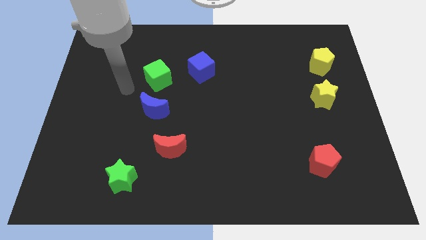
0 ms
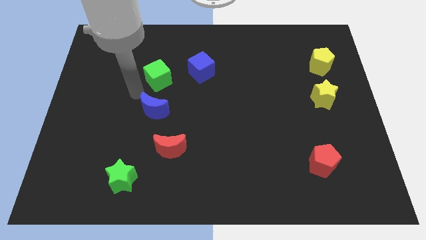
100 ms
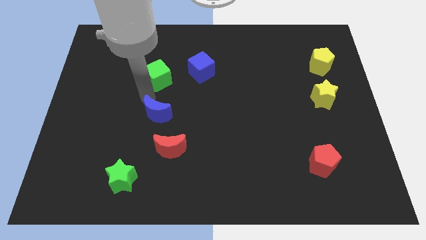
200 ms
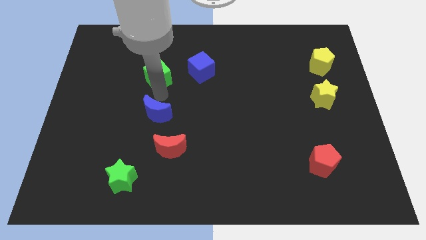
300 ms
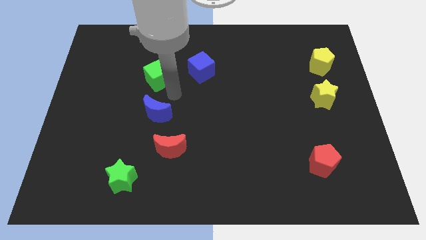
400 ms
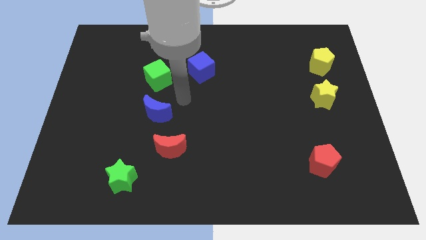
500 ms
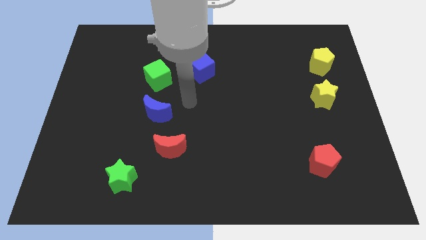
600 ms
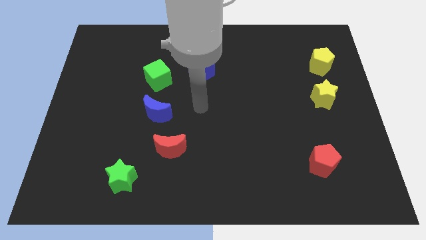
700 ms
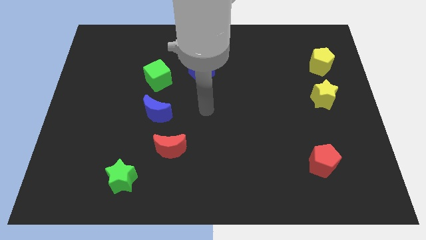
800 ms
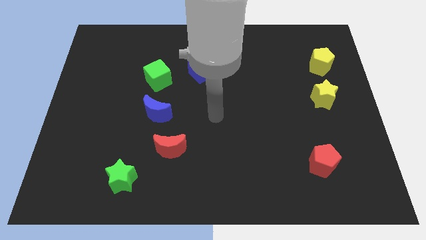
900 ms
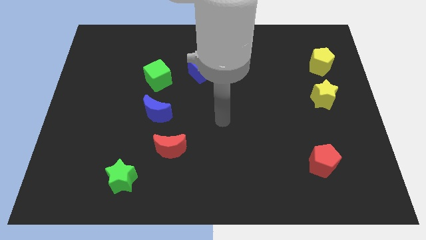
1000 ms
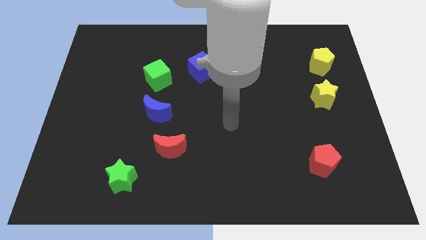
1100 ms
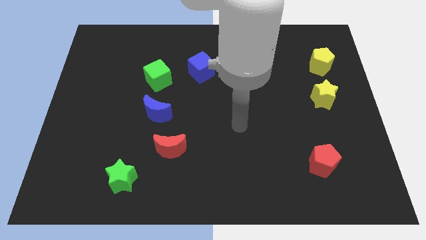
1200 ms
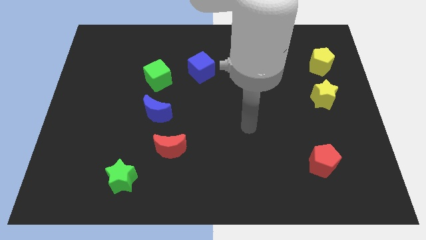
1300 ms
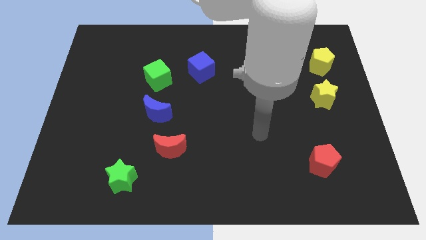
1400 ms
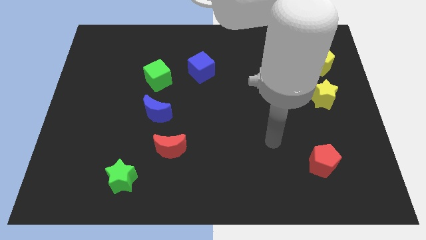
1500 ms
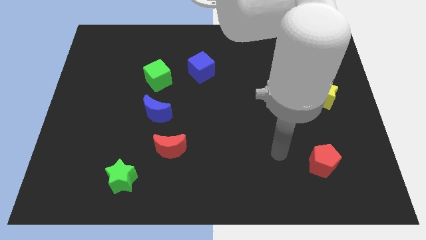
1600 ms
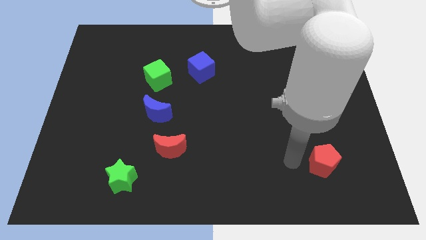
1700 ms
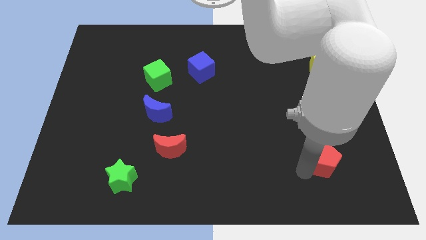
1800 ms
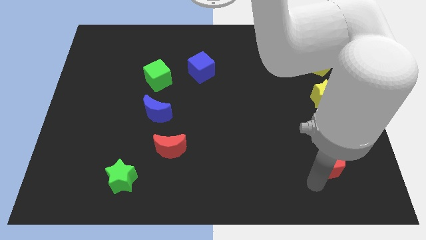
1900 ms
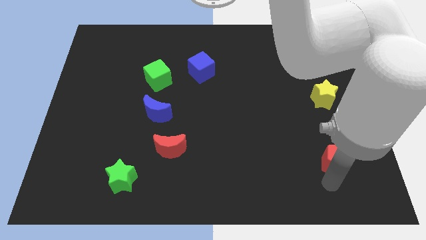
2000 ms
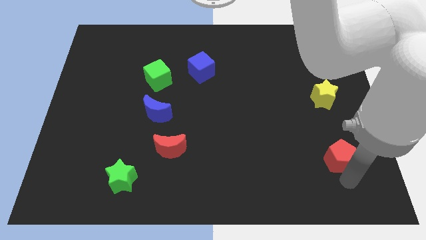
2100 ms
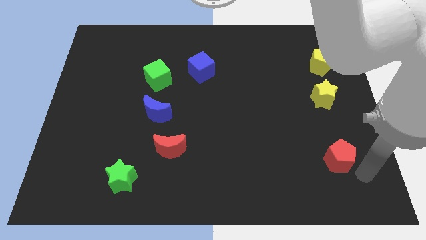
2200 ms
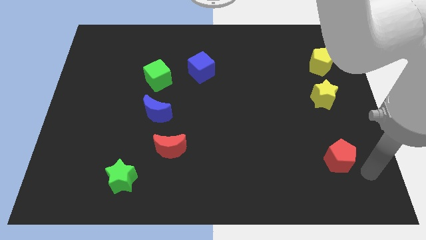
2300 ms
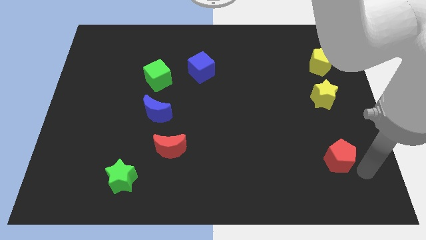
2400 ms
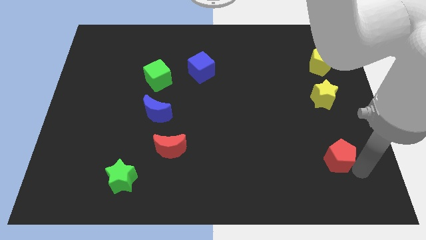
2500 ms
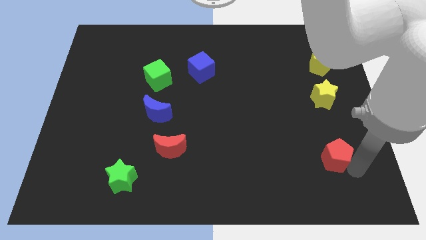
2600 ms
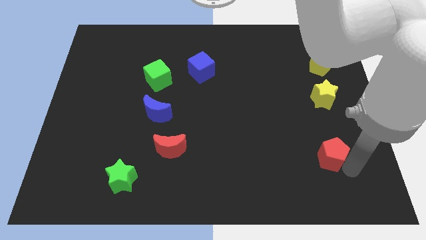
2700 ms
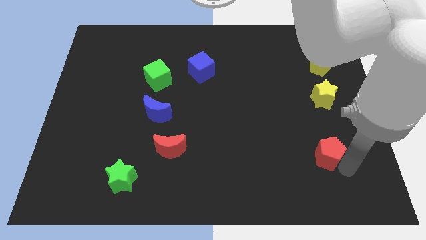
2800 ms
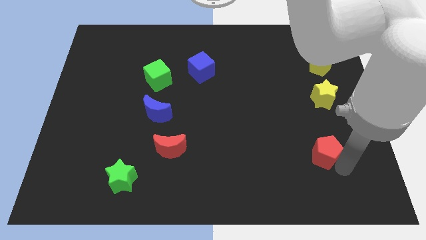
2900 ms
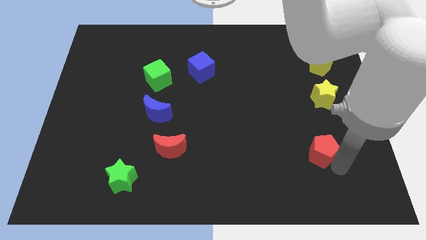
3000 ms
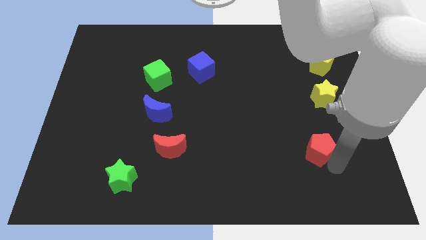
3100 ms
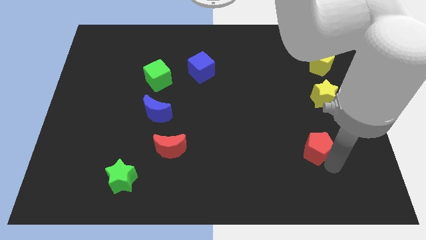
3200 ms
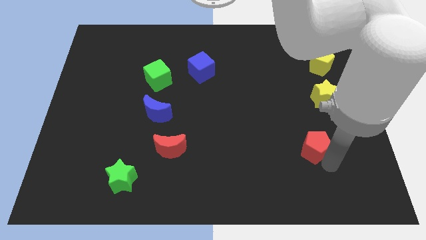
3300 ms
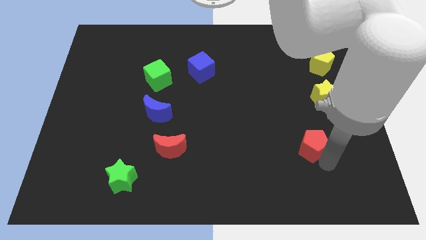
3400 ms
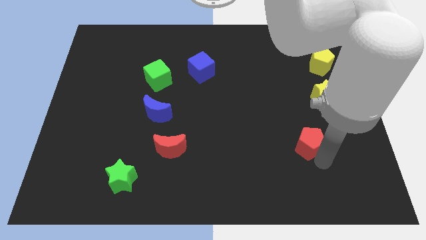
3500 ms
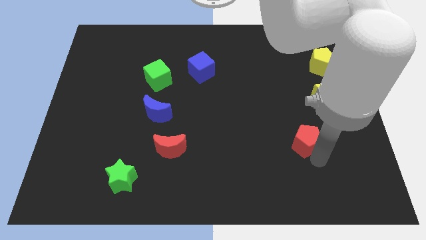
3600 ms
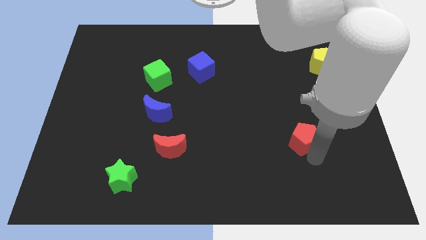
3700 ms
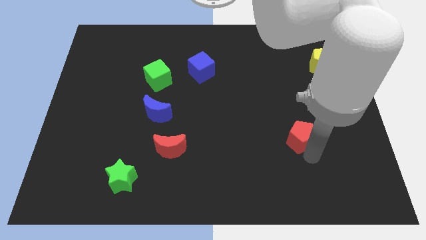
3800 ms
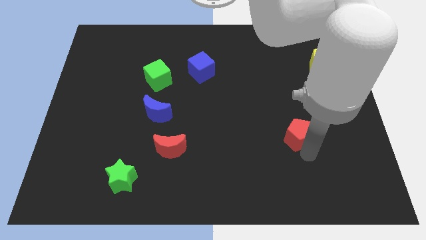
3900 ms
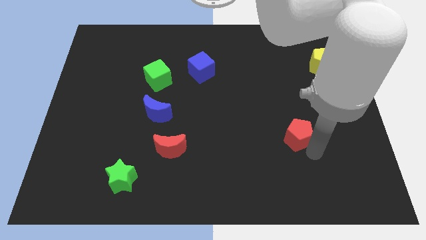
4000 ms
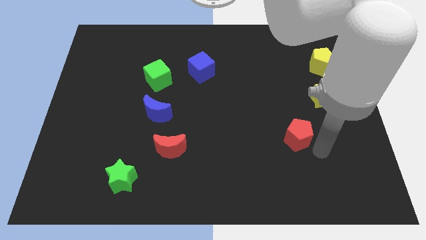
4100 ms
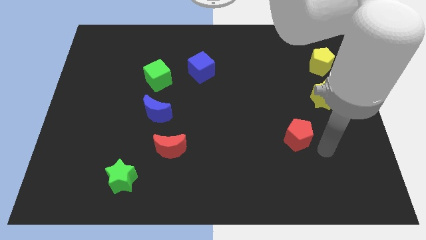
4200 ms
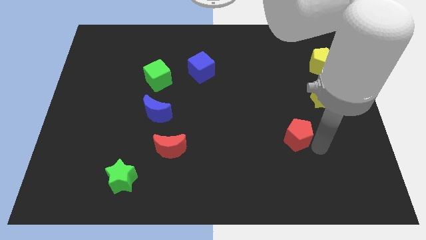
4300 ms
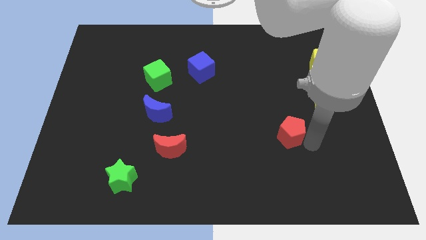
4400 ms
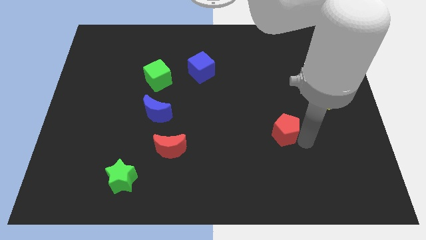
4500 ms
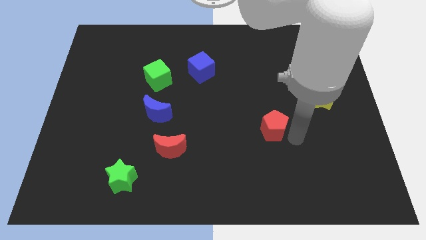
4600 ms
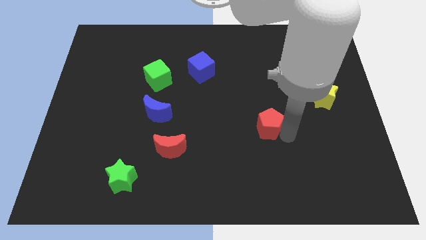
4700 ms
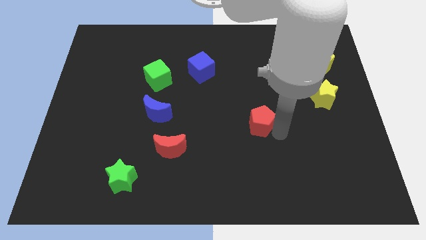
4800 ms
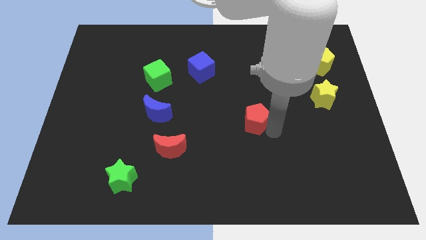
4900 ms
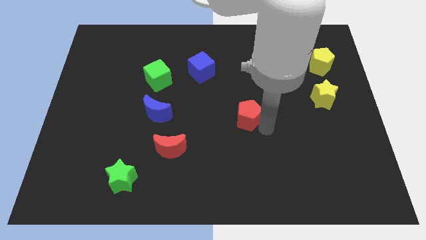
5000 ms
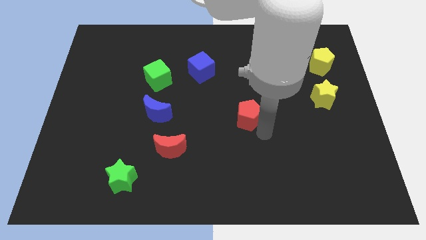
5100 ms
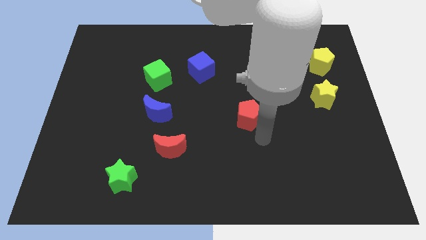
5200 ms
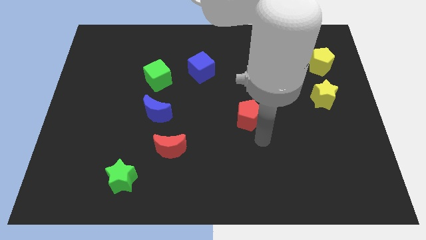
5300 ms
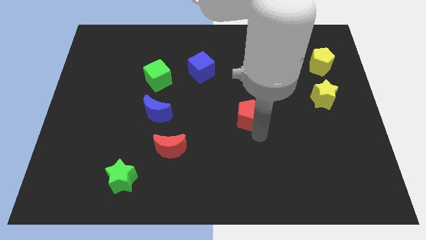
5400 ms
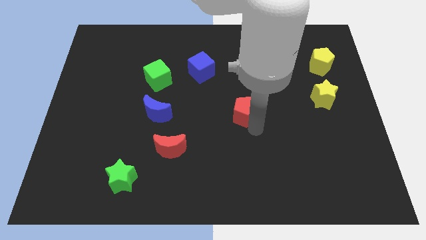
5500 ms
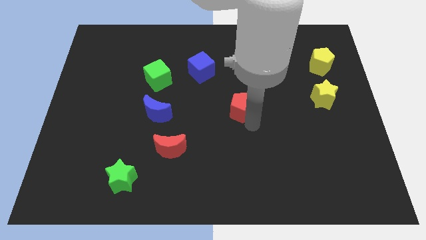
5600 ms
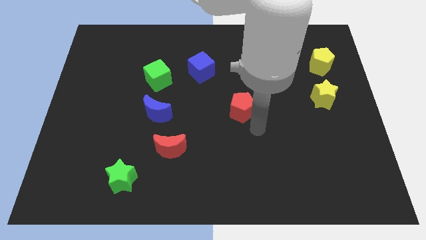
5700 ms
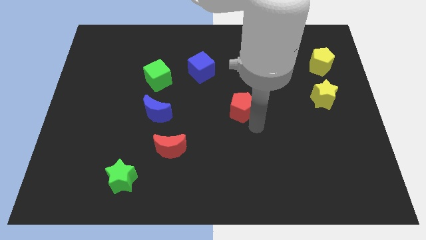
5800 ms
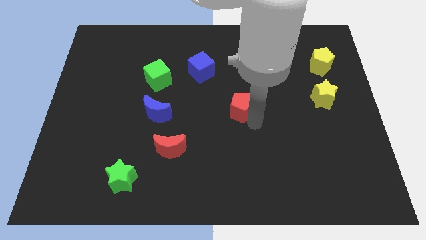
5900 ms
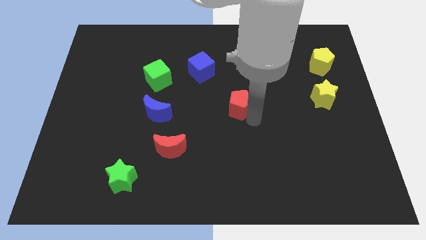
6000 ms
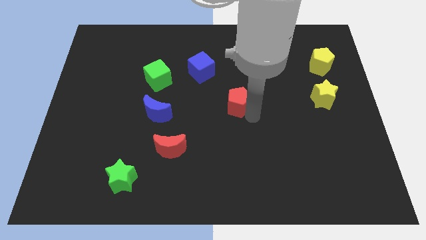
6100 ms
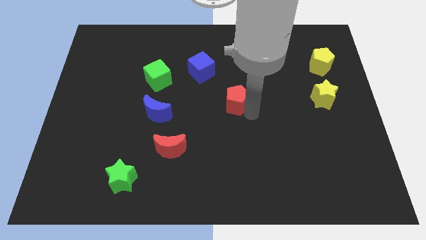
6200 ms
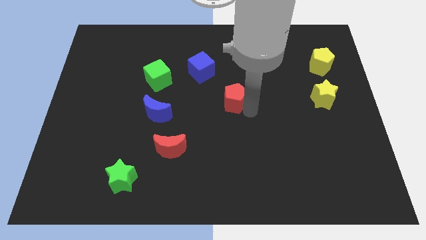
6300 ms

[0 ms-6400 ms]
put the red pentagon to the bottom right side of the blue cube
